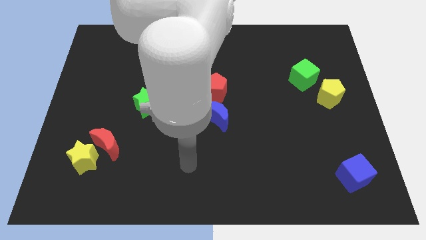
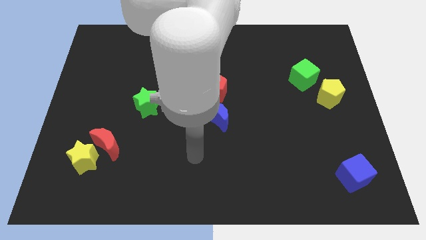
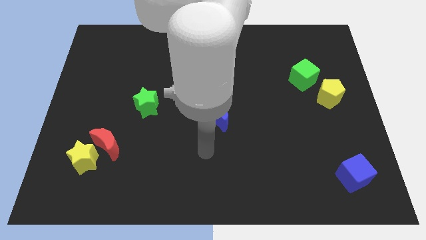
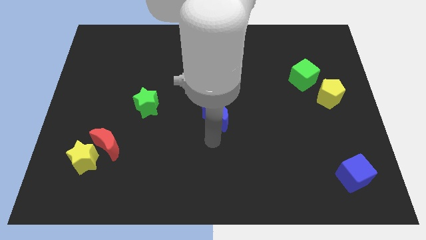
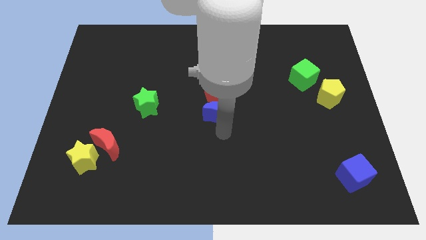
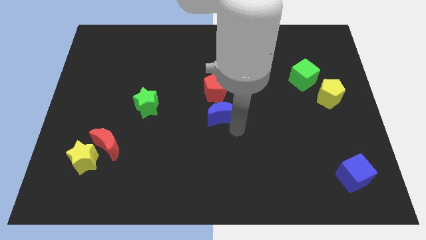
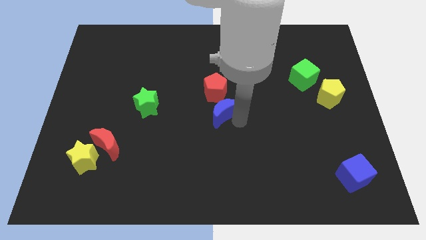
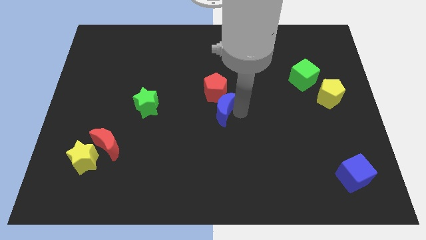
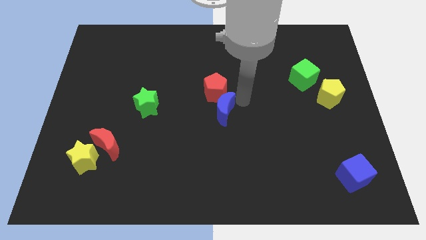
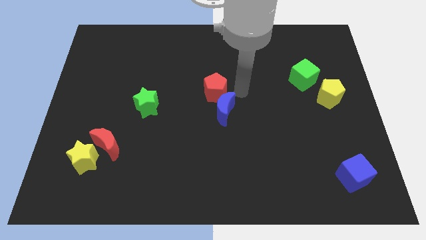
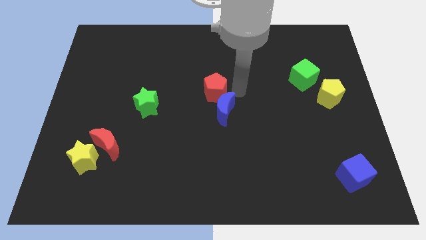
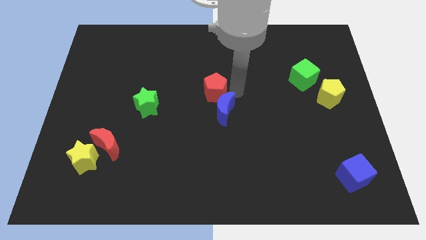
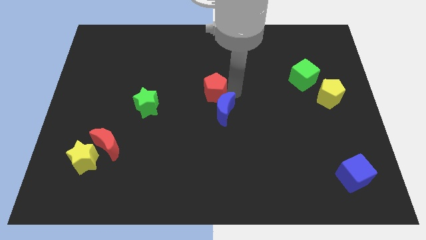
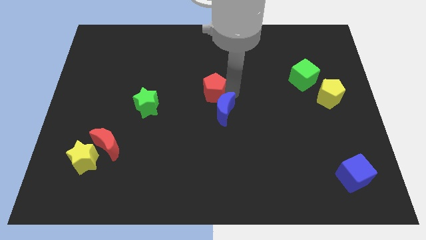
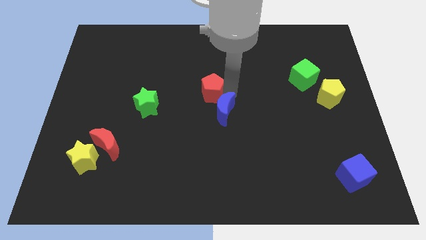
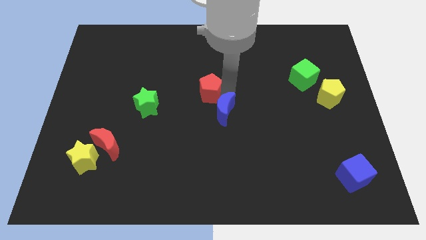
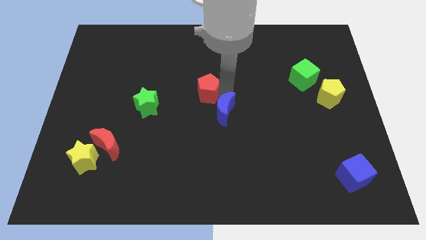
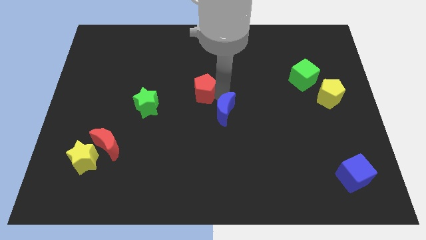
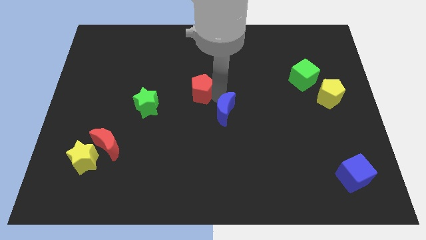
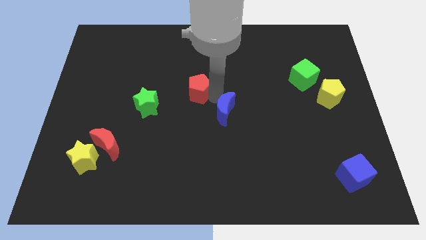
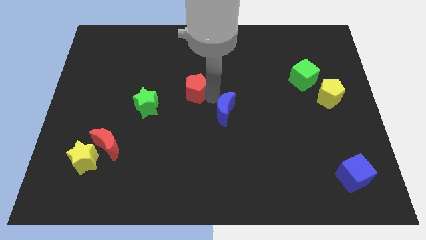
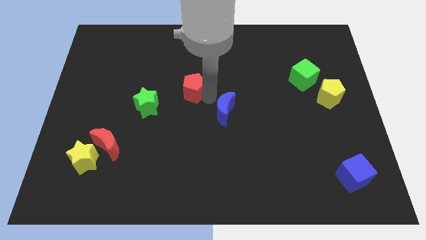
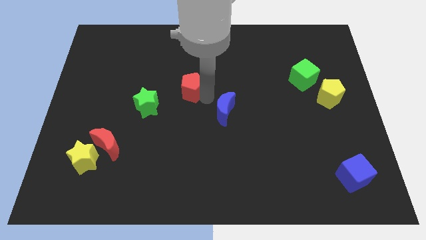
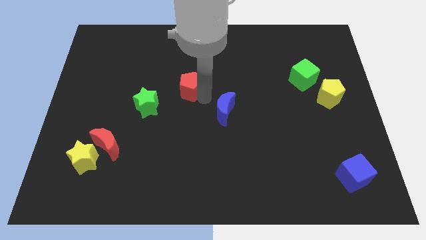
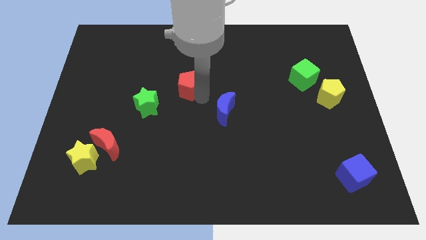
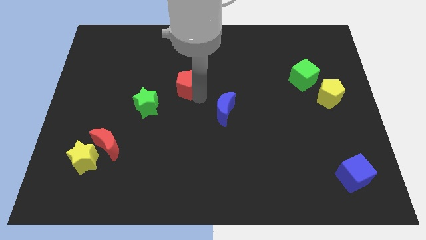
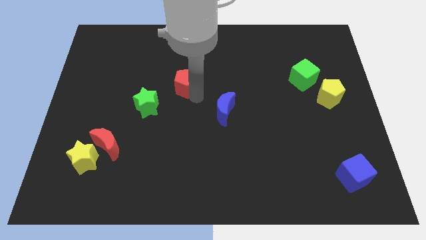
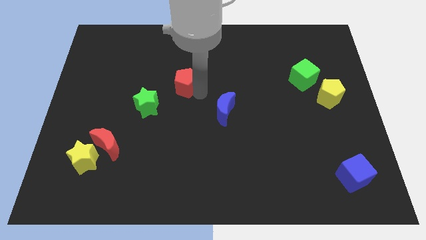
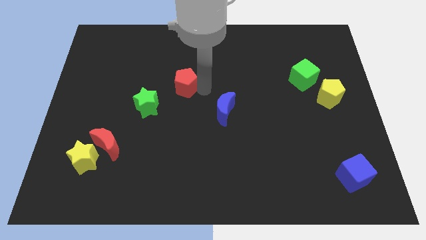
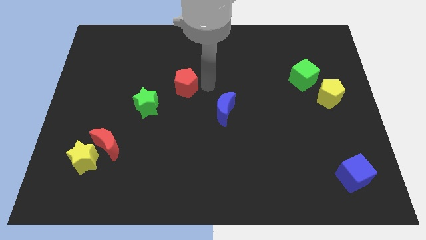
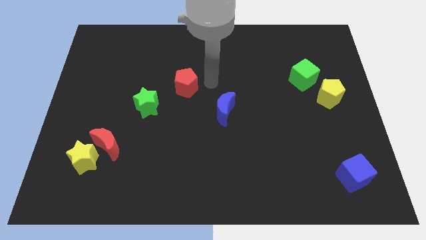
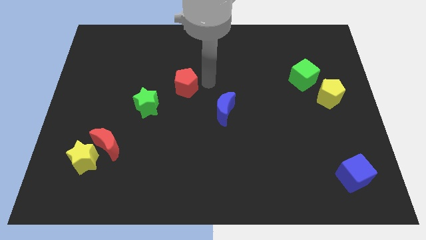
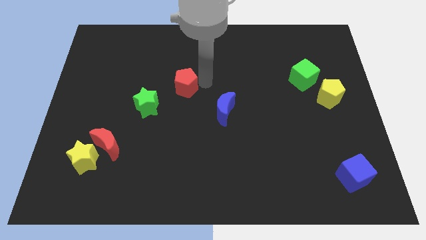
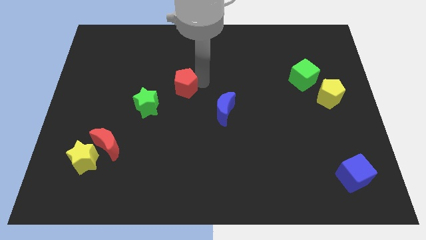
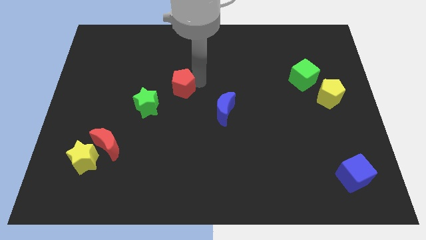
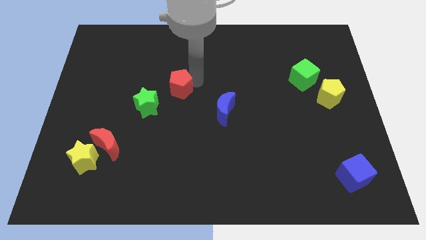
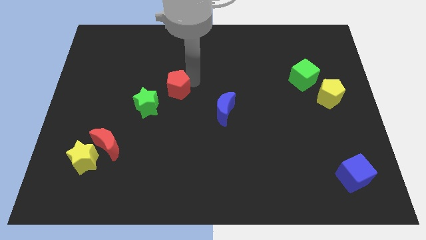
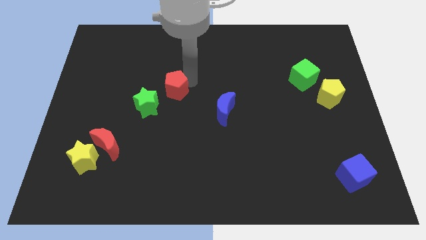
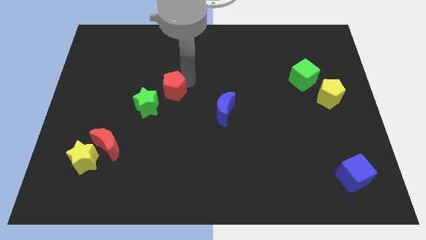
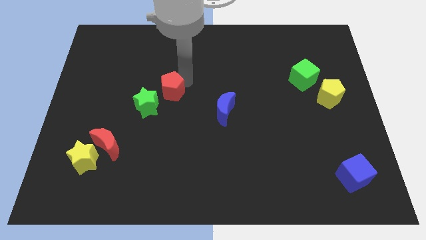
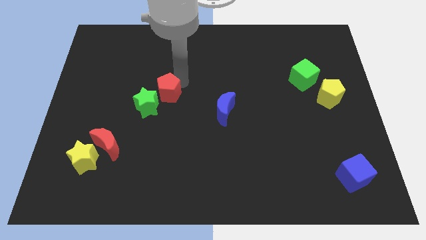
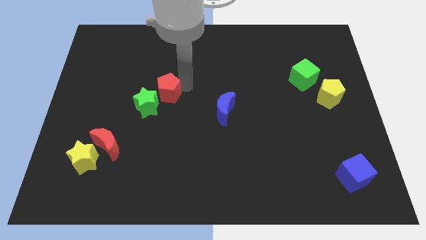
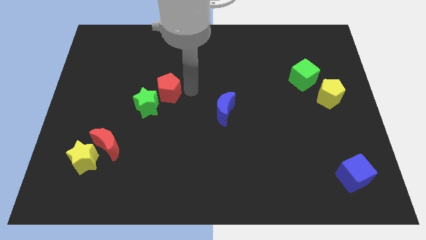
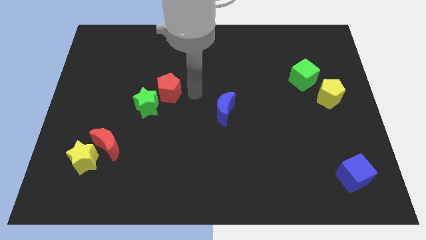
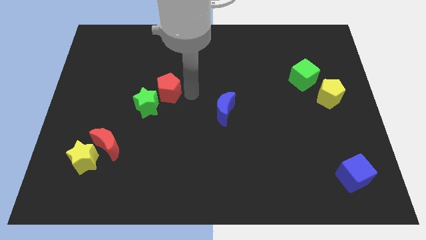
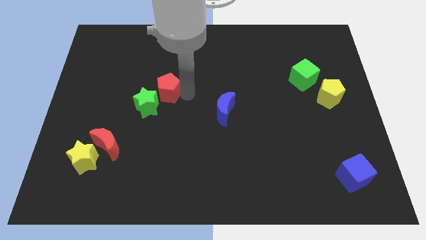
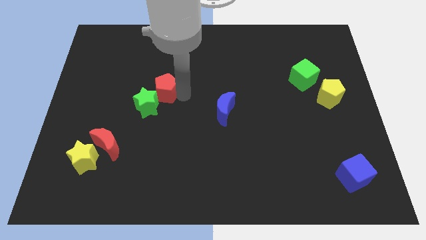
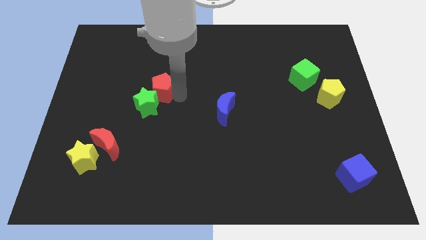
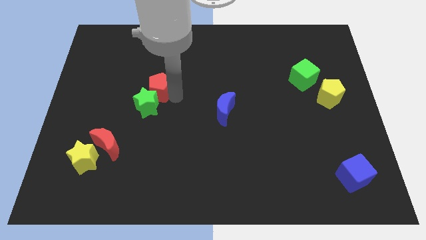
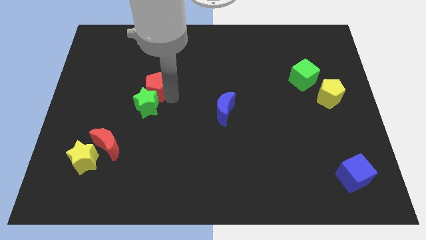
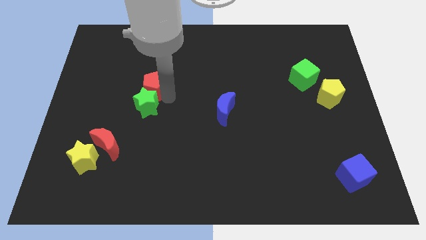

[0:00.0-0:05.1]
push the red pentagon to the top left side of the green star

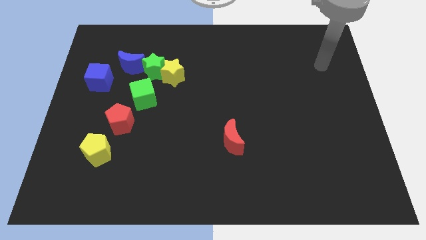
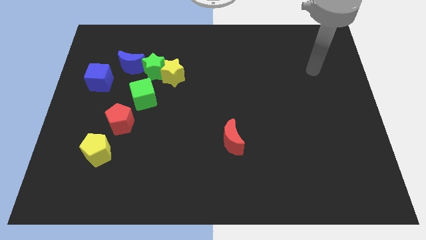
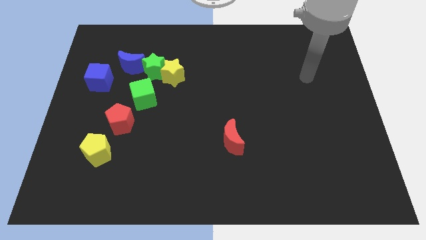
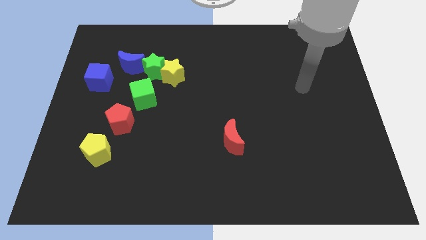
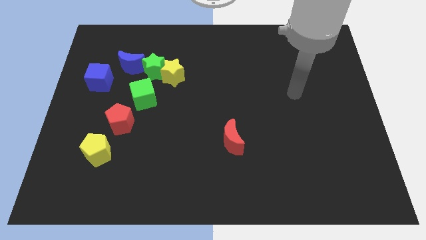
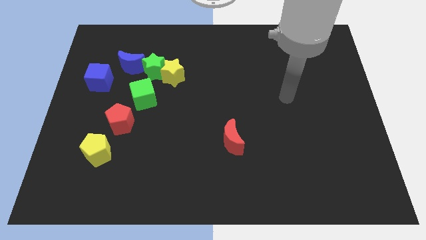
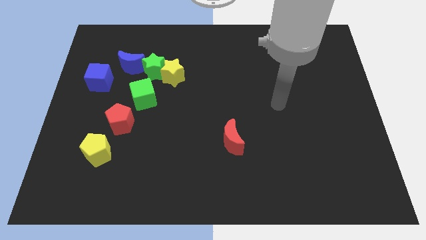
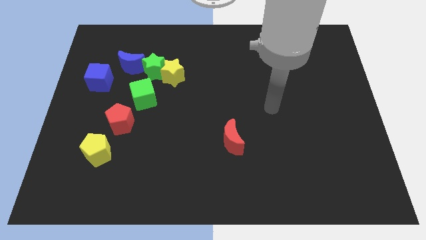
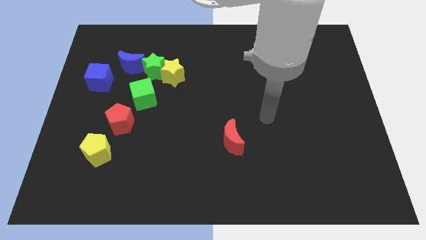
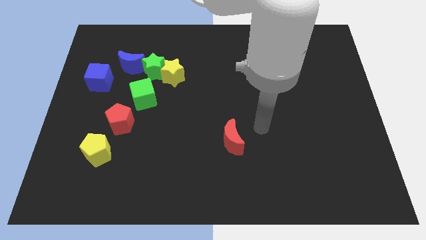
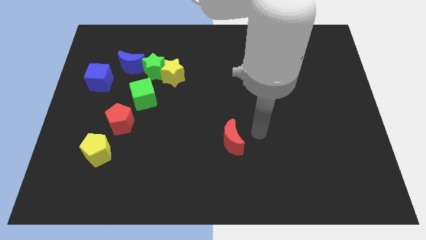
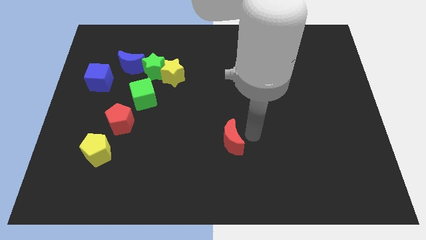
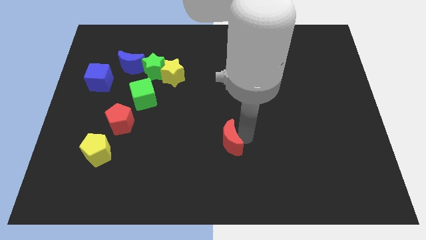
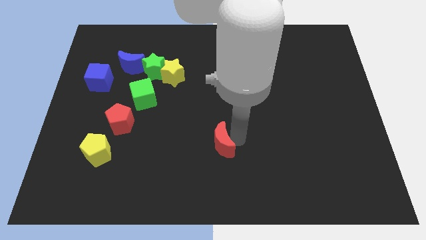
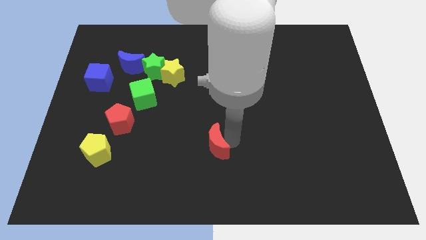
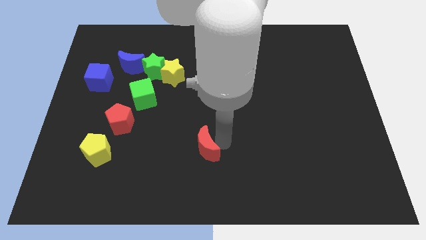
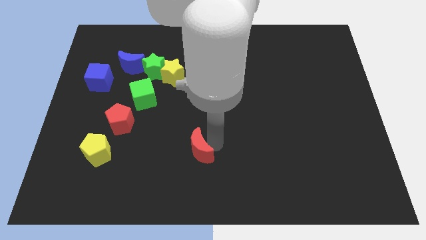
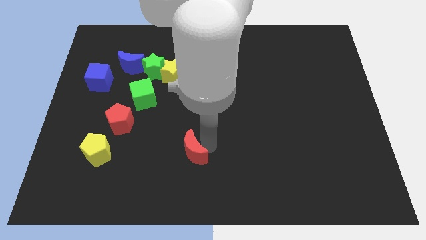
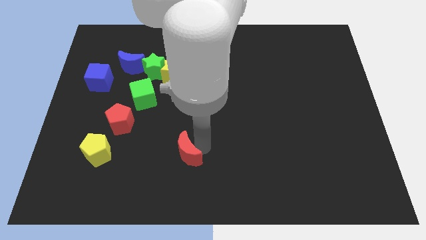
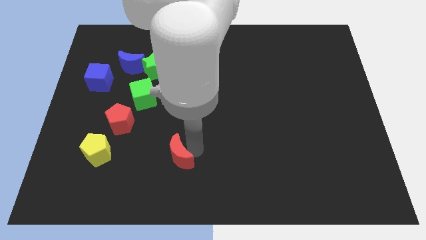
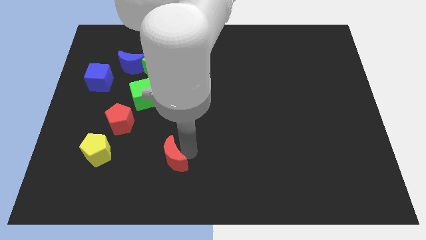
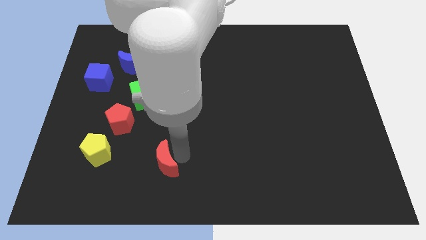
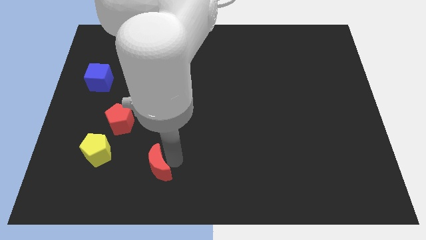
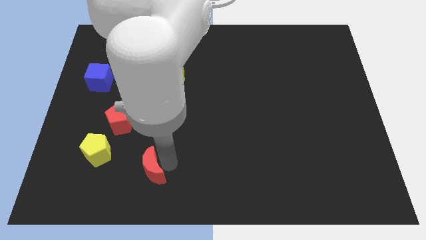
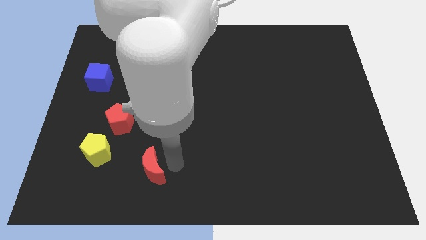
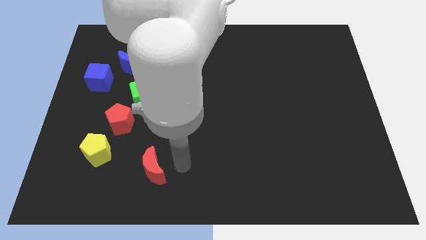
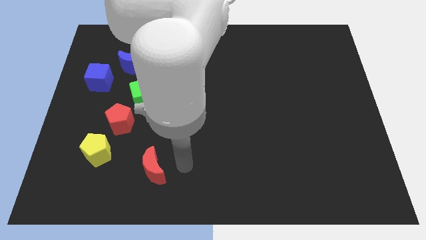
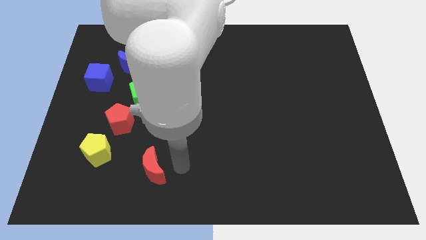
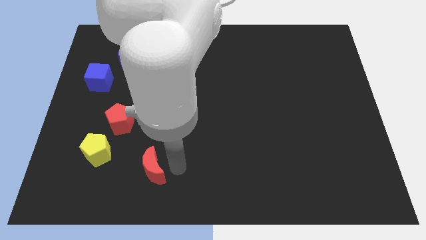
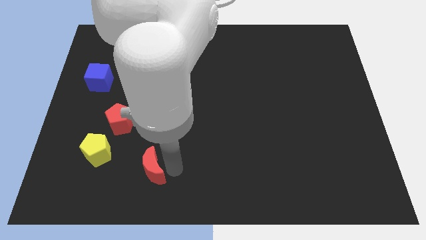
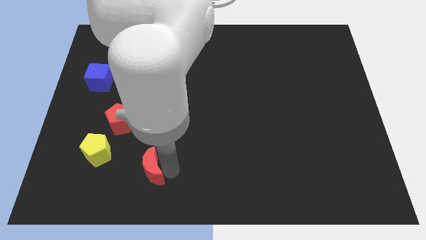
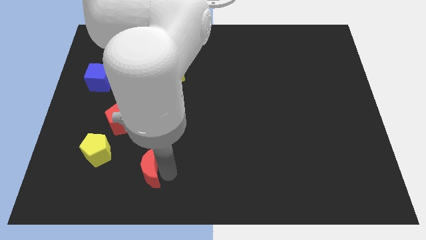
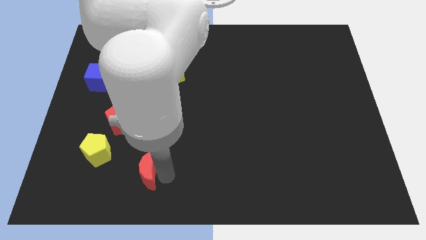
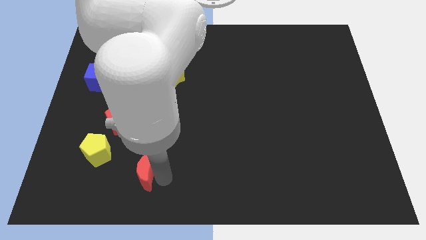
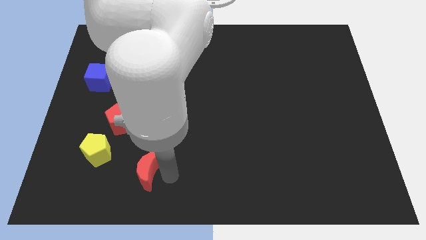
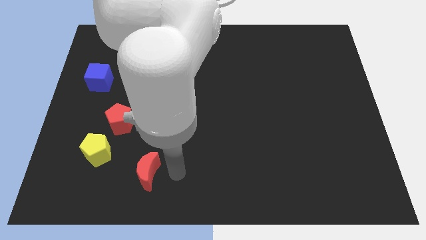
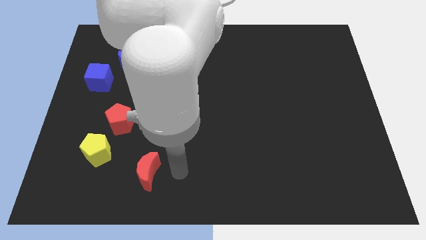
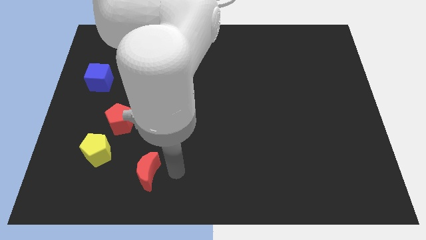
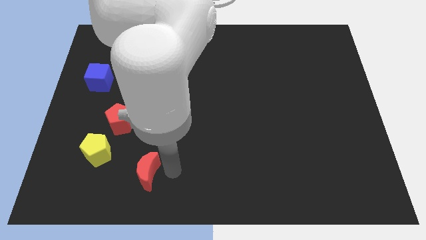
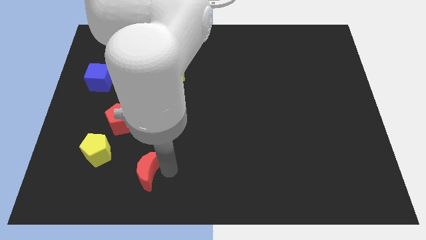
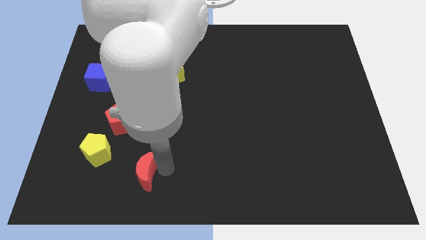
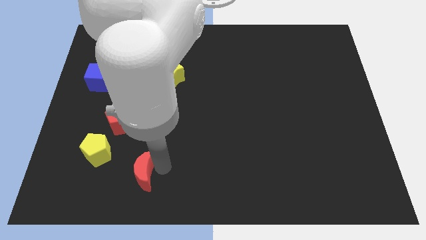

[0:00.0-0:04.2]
push the red moon to the bottom right of the yellow pentagon
